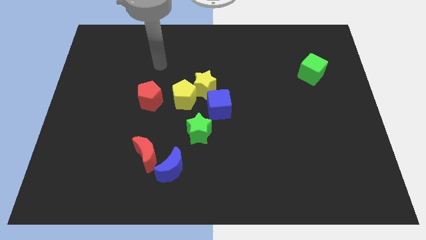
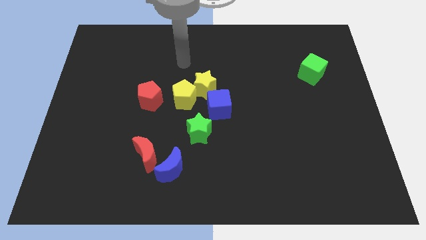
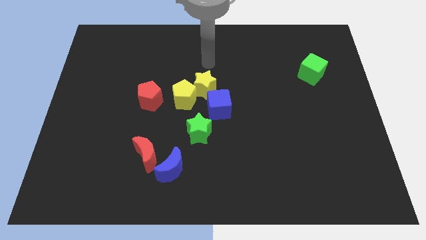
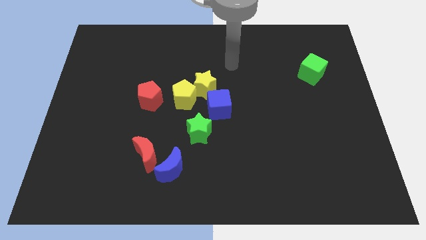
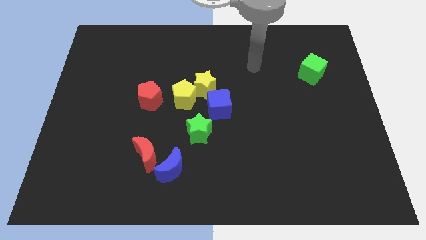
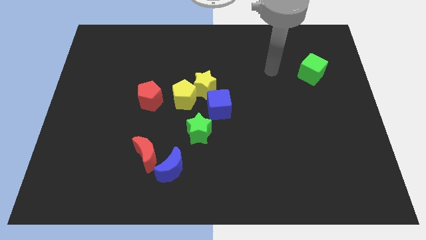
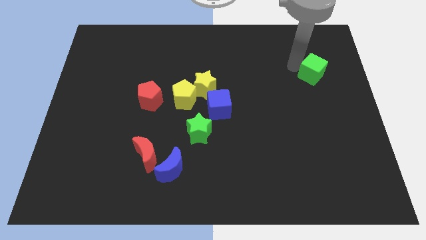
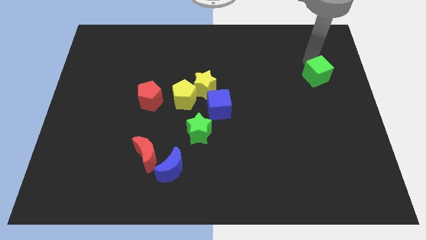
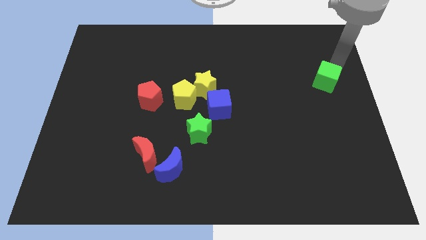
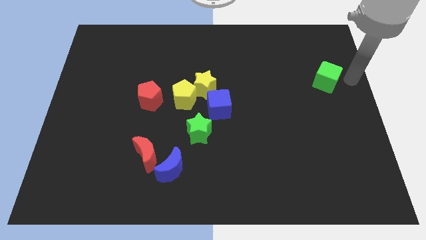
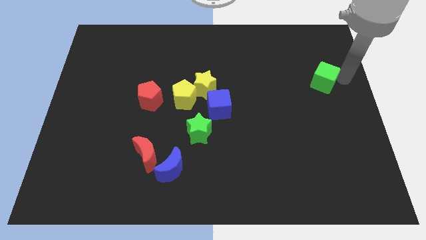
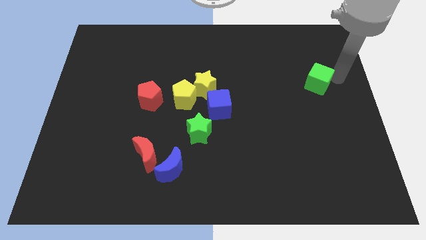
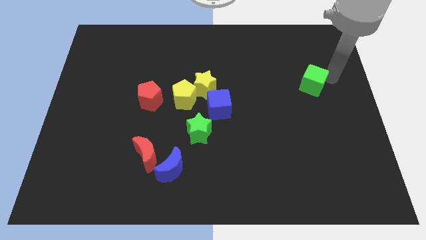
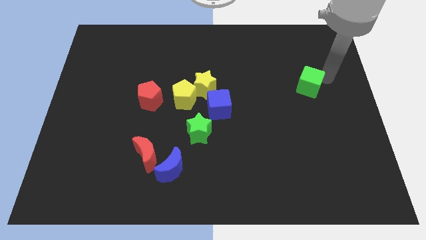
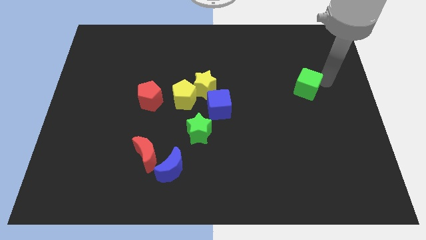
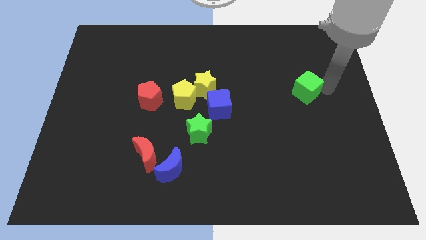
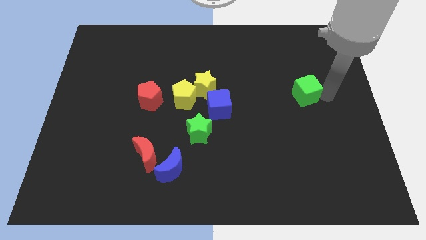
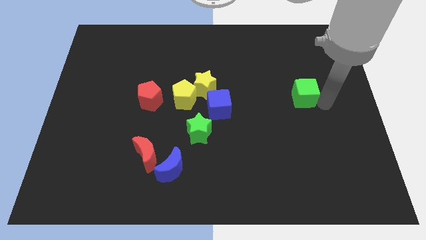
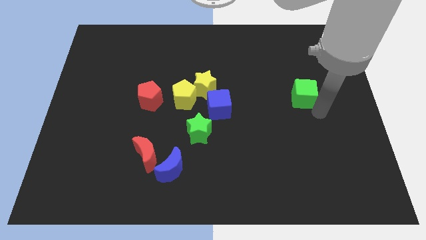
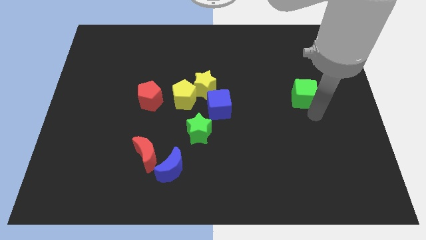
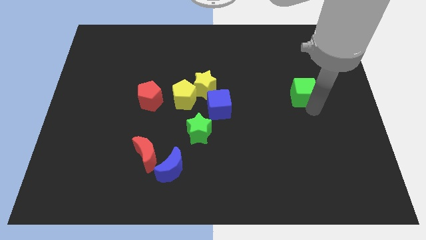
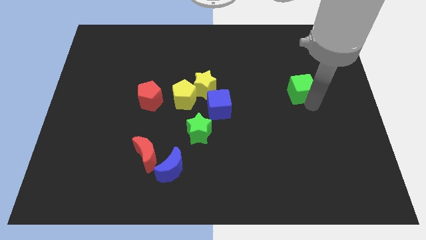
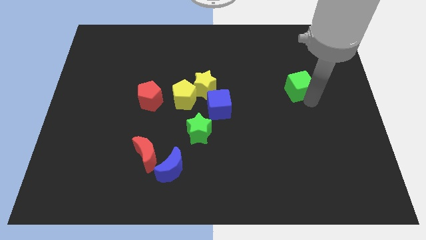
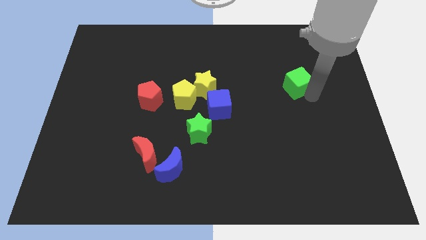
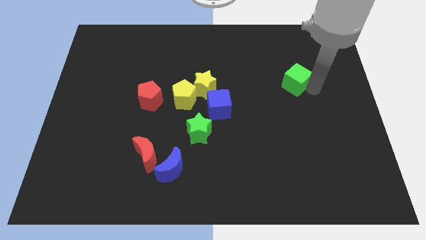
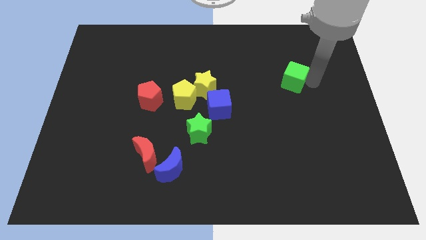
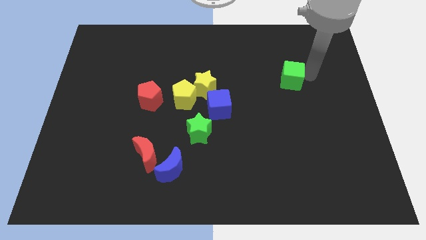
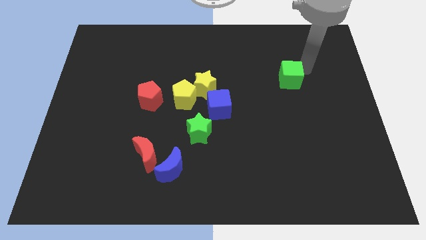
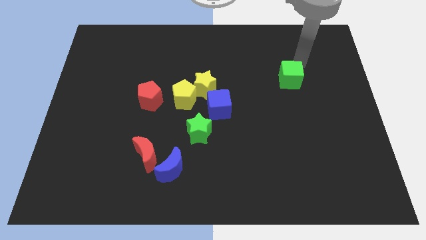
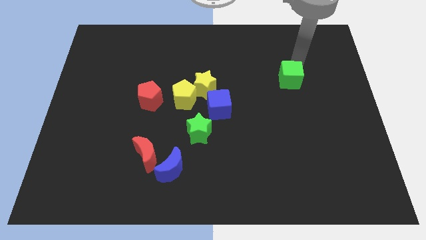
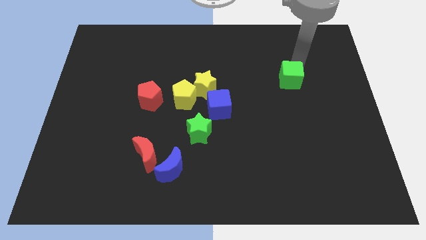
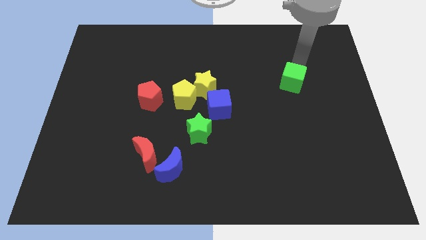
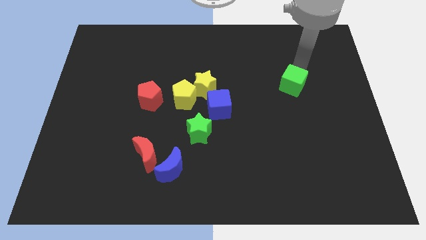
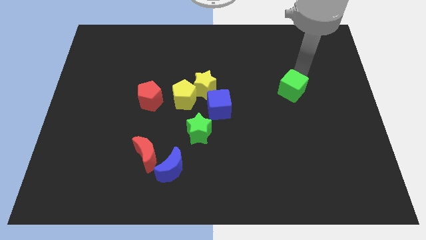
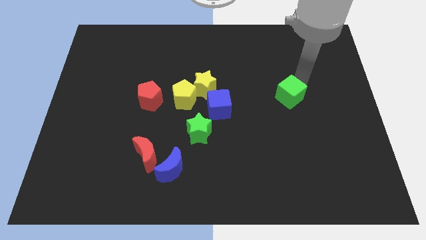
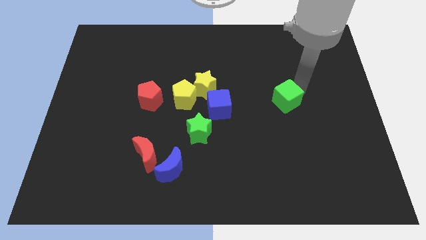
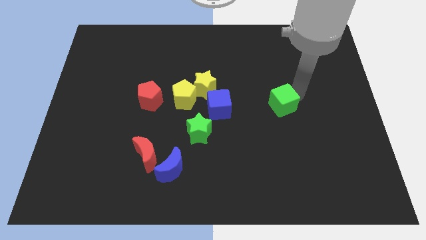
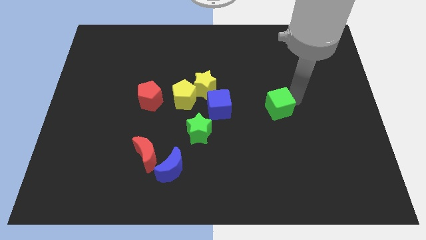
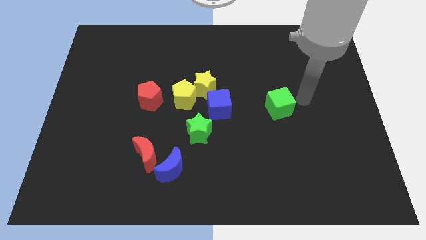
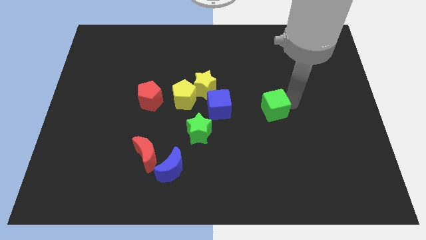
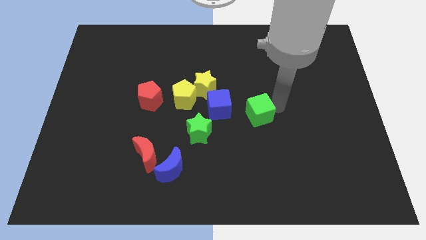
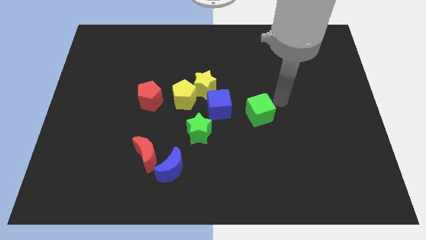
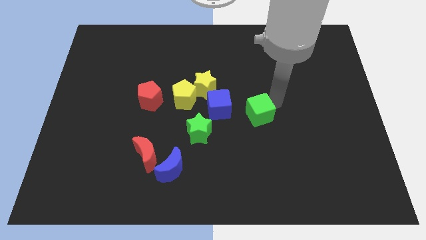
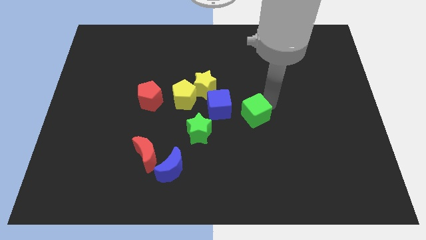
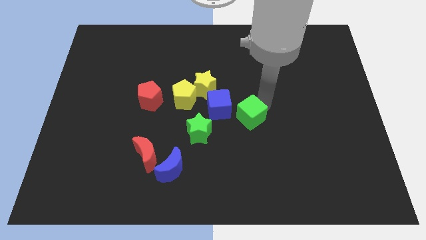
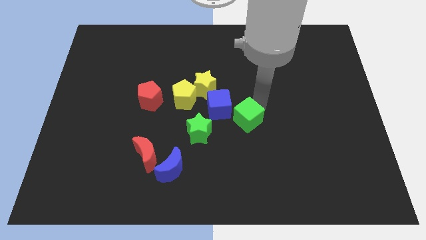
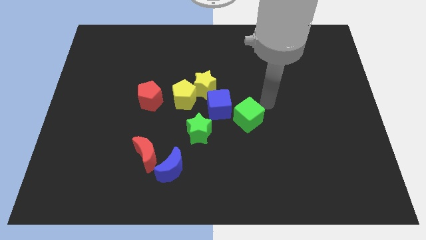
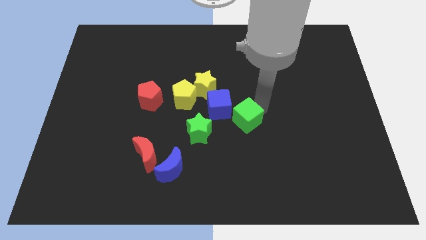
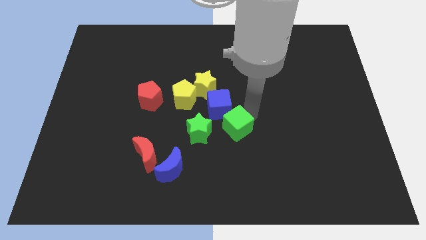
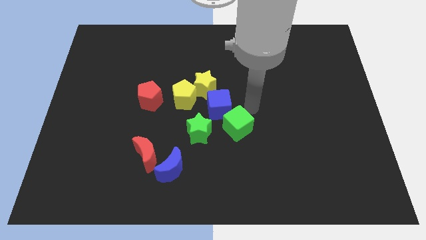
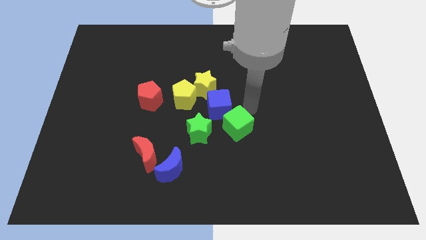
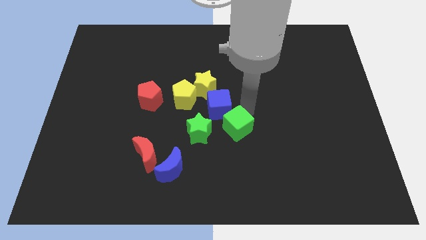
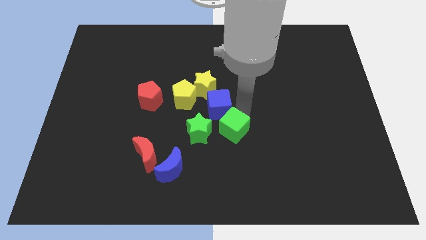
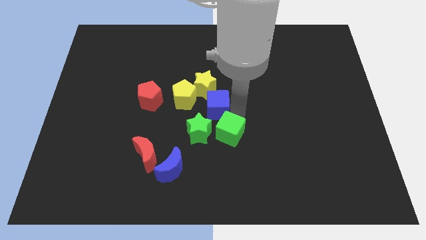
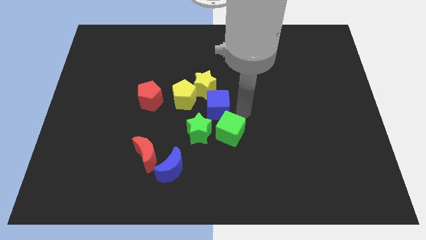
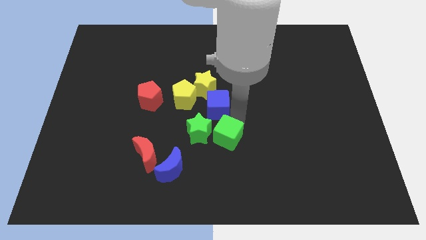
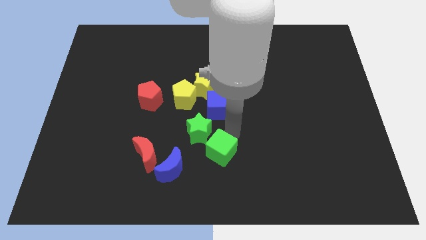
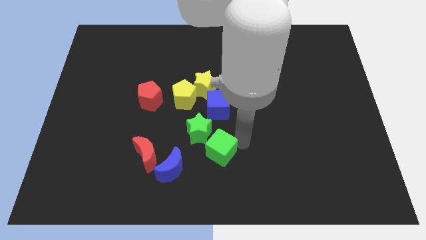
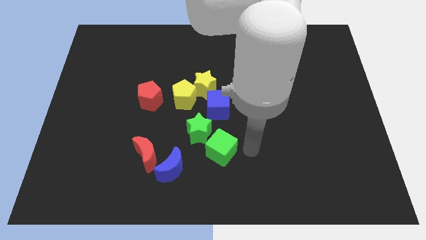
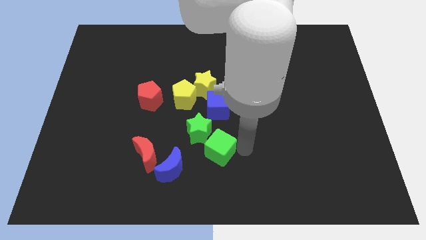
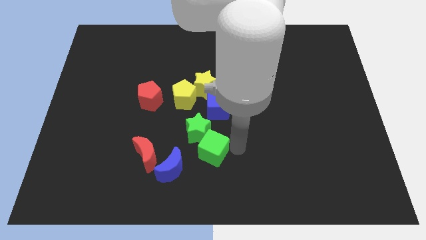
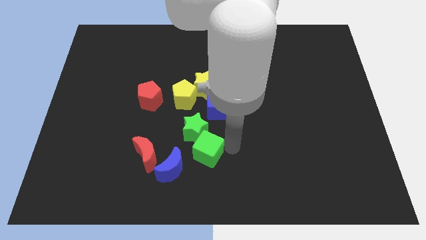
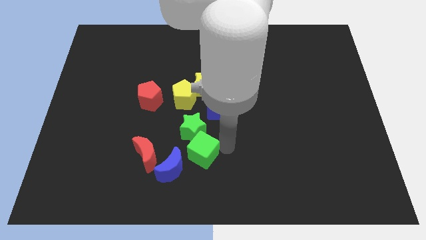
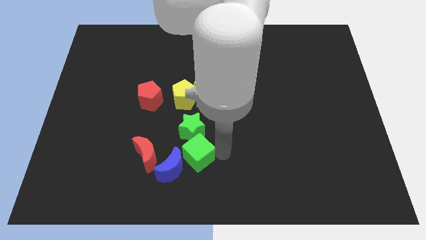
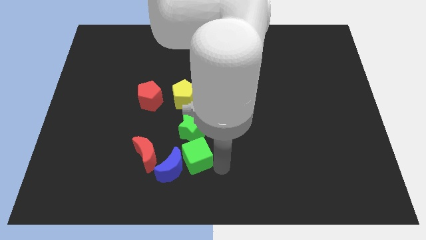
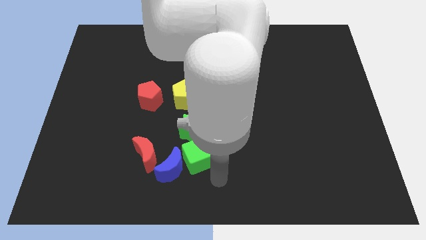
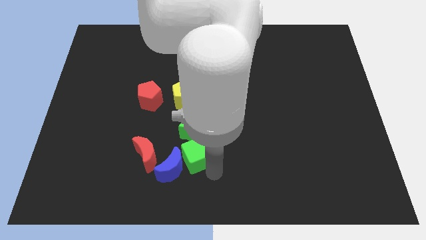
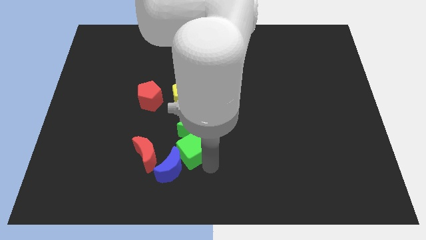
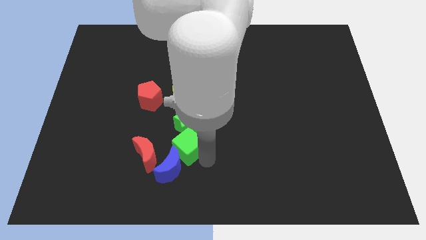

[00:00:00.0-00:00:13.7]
put the green cube to the top right of the red moon
